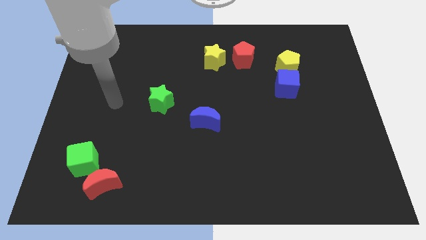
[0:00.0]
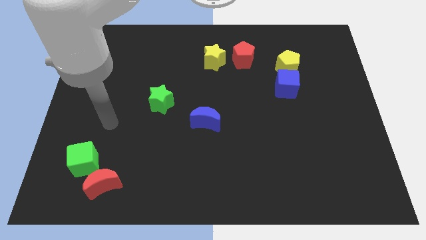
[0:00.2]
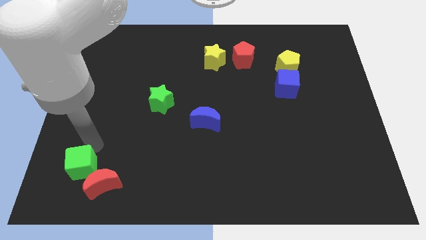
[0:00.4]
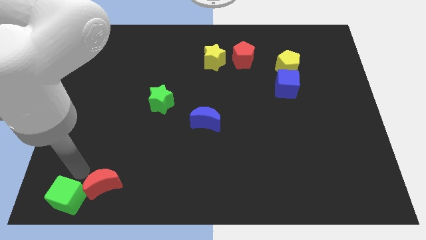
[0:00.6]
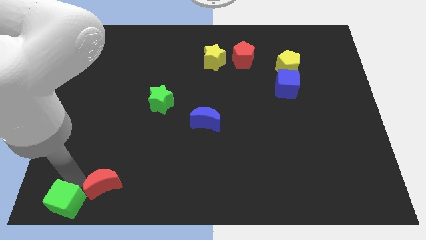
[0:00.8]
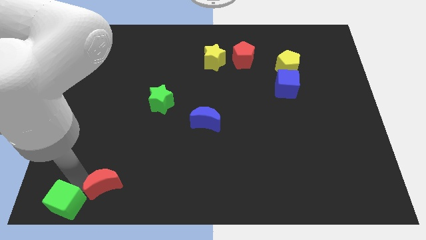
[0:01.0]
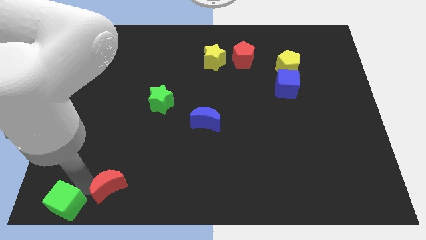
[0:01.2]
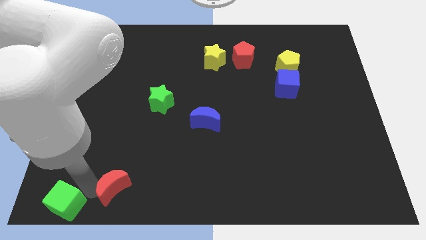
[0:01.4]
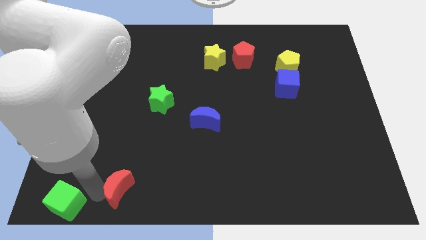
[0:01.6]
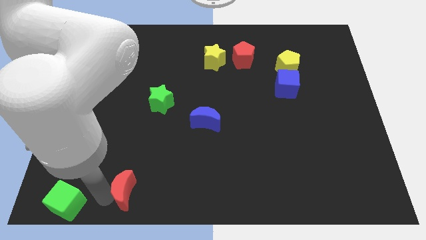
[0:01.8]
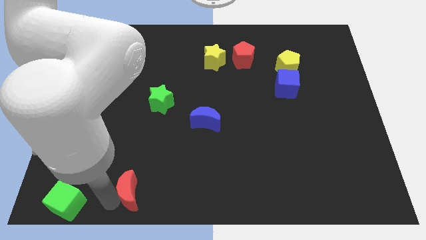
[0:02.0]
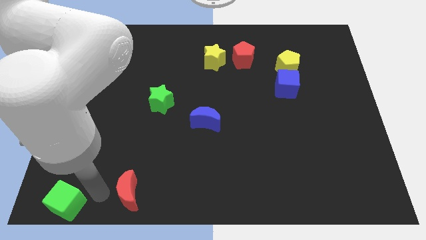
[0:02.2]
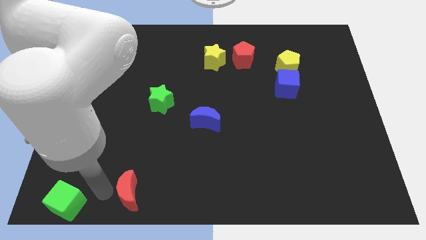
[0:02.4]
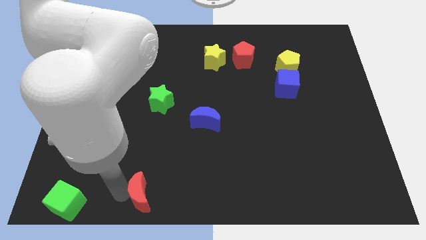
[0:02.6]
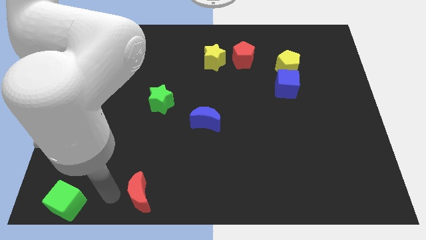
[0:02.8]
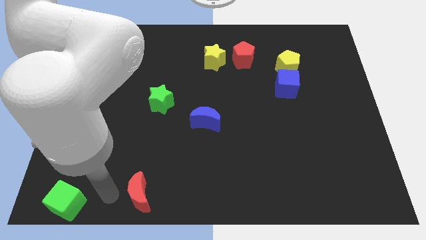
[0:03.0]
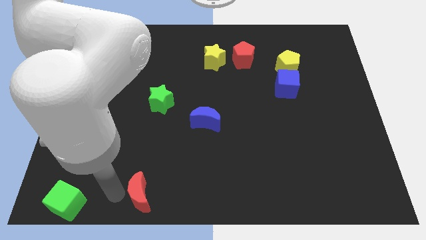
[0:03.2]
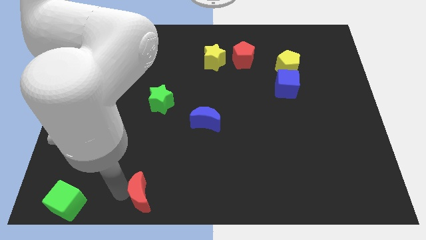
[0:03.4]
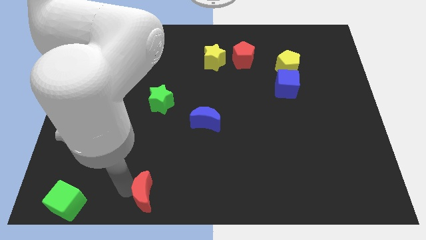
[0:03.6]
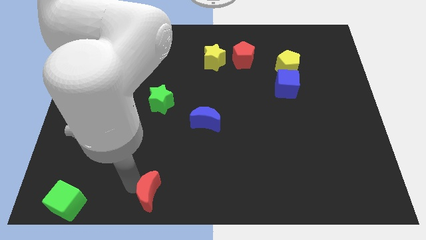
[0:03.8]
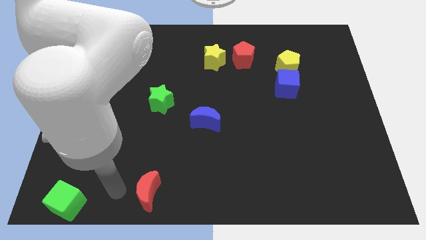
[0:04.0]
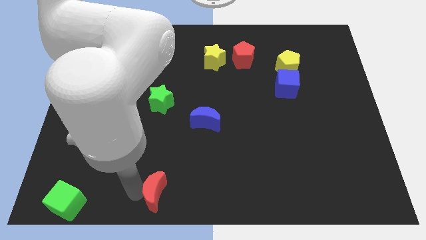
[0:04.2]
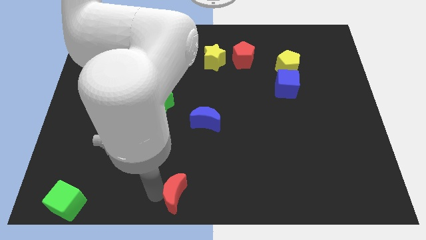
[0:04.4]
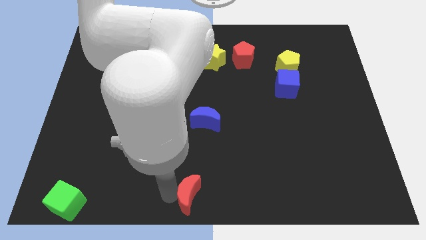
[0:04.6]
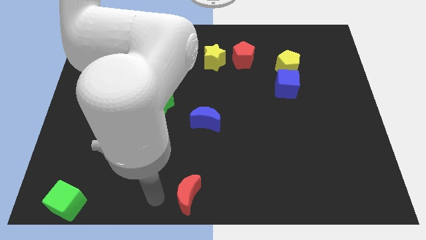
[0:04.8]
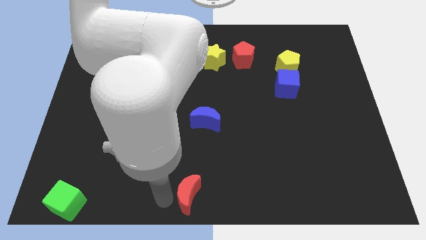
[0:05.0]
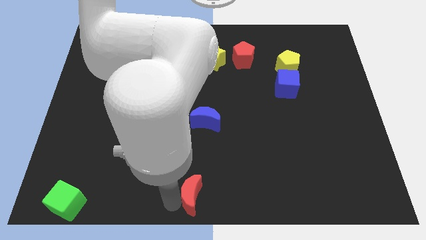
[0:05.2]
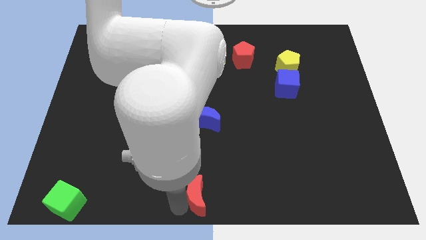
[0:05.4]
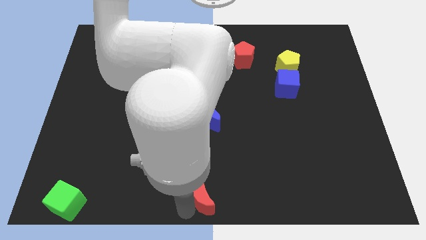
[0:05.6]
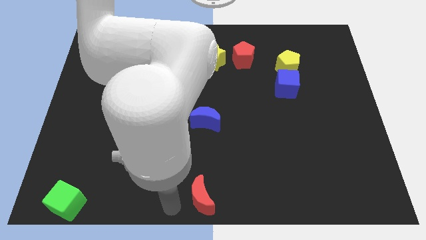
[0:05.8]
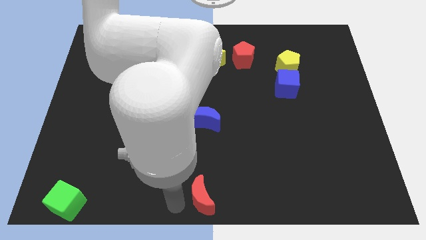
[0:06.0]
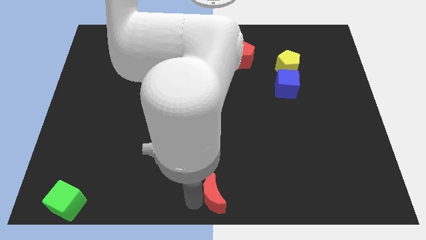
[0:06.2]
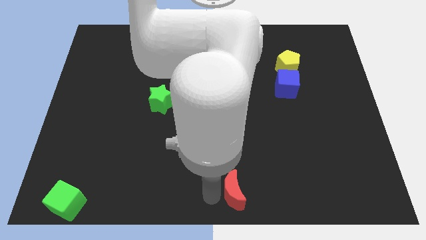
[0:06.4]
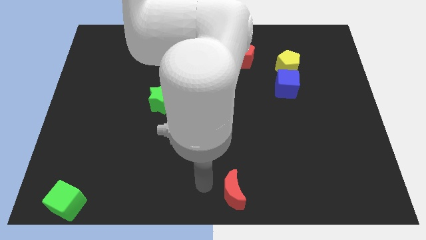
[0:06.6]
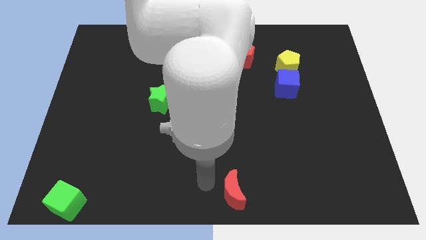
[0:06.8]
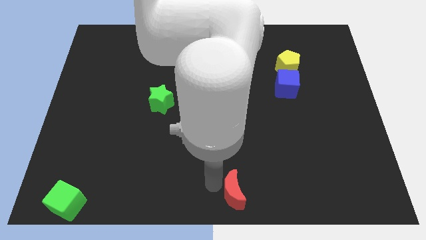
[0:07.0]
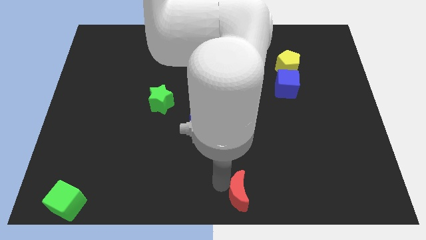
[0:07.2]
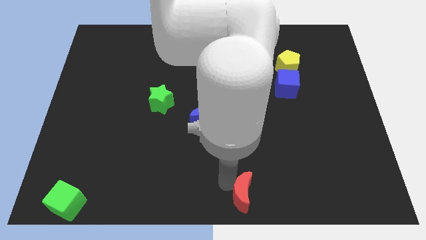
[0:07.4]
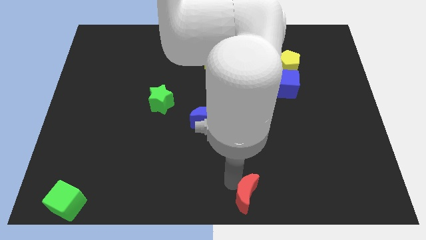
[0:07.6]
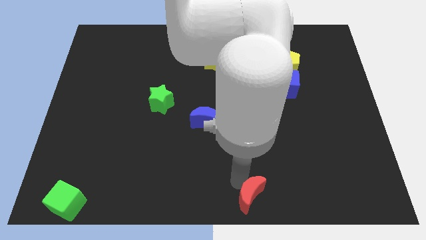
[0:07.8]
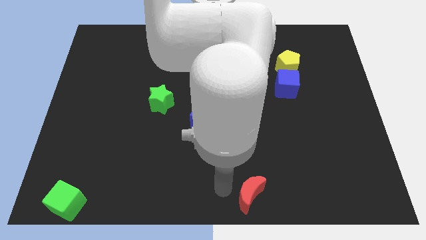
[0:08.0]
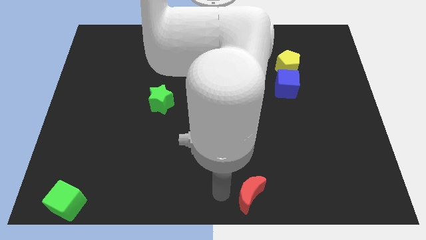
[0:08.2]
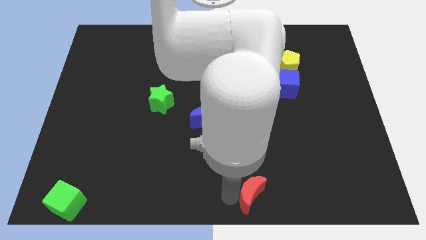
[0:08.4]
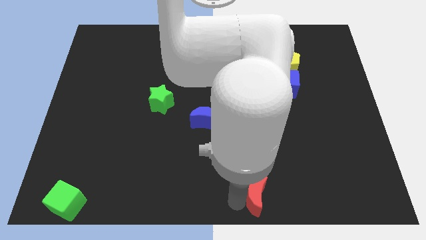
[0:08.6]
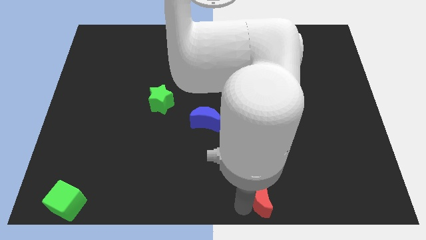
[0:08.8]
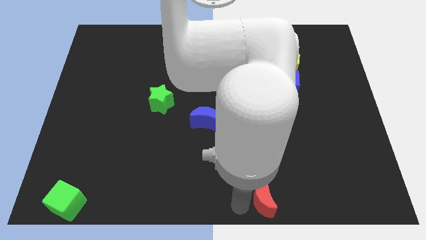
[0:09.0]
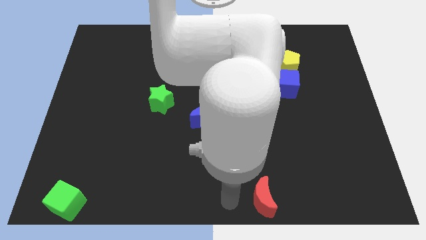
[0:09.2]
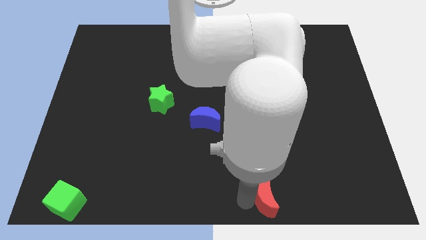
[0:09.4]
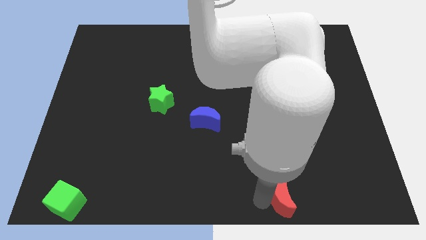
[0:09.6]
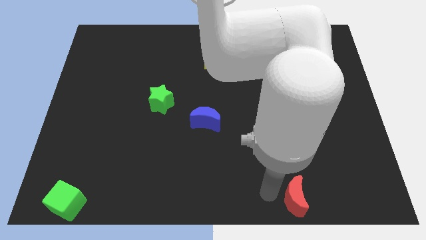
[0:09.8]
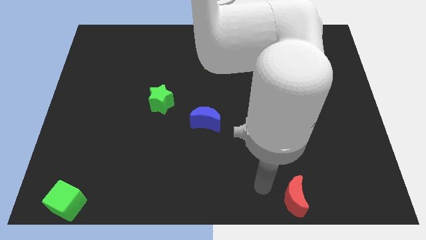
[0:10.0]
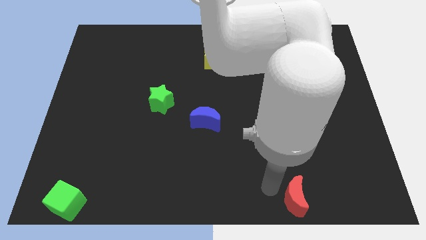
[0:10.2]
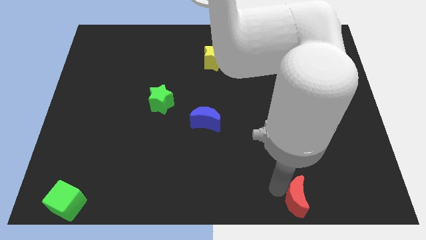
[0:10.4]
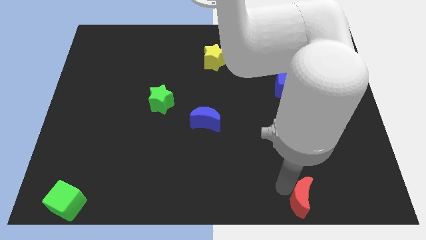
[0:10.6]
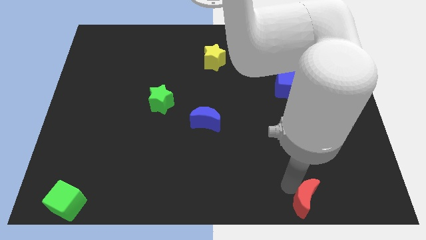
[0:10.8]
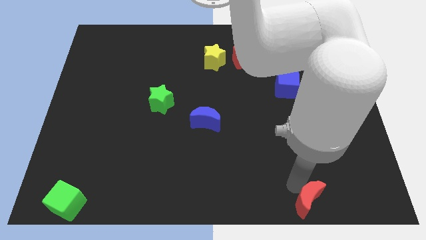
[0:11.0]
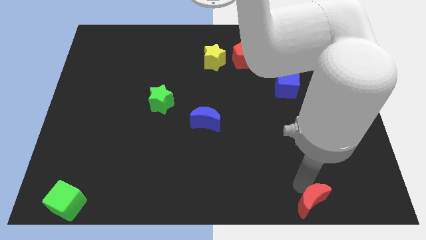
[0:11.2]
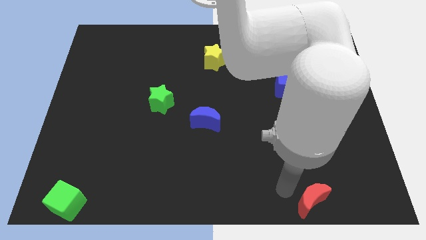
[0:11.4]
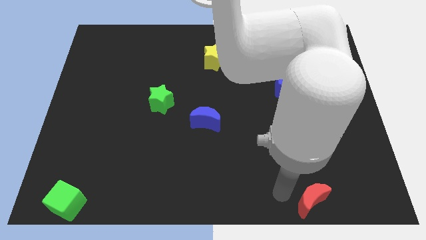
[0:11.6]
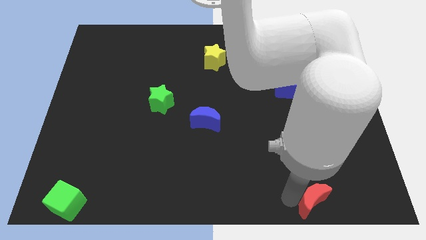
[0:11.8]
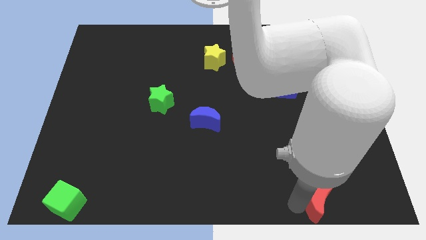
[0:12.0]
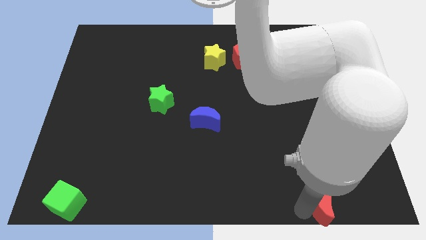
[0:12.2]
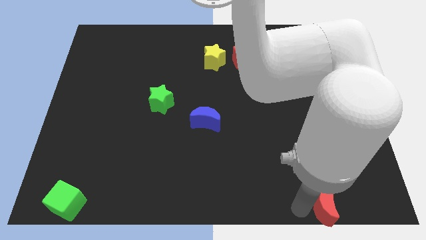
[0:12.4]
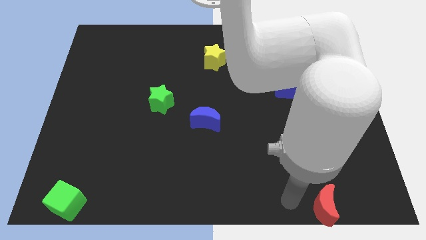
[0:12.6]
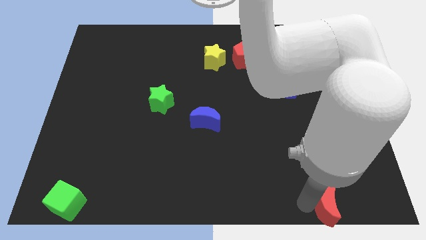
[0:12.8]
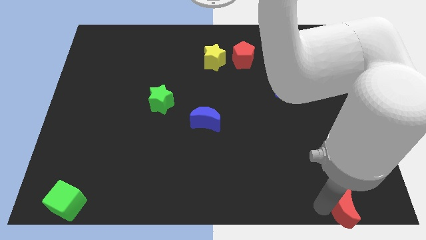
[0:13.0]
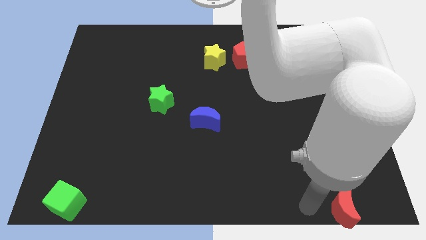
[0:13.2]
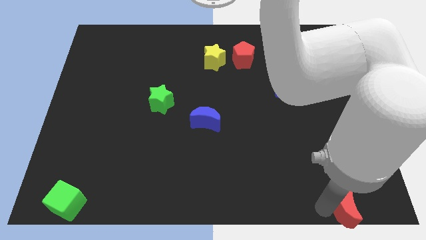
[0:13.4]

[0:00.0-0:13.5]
move the red moon to the bottom right corner
